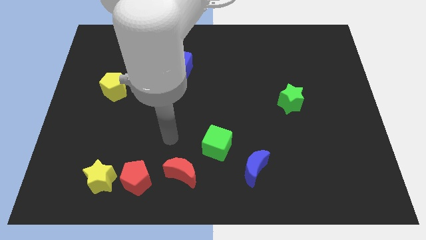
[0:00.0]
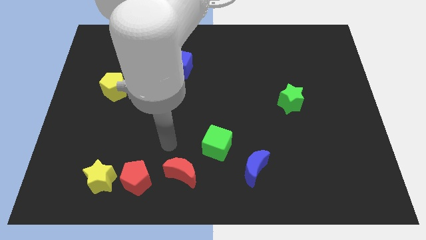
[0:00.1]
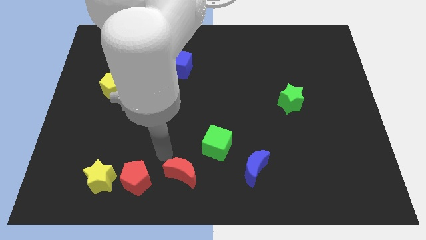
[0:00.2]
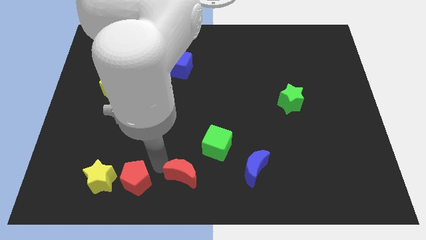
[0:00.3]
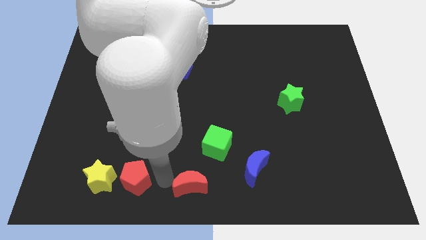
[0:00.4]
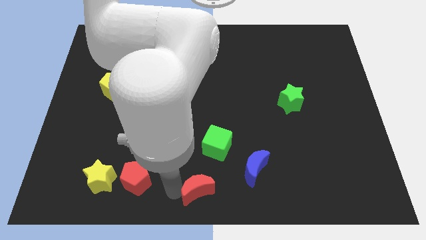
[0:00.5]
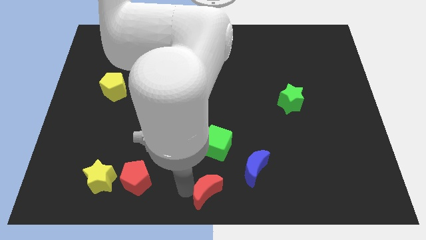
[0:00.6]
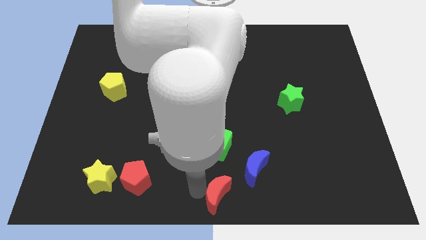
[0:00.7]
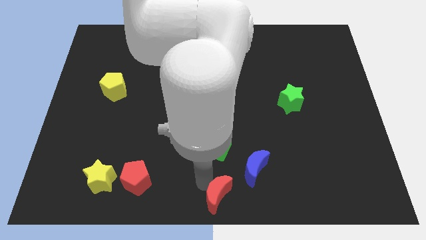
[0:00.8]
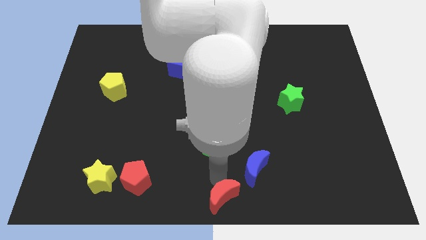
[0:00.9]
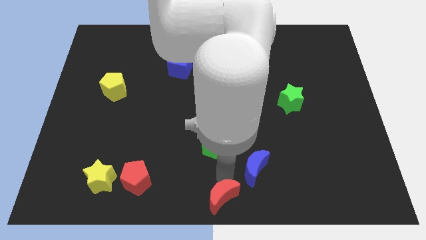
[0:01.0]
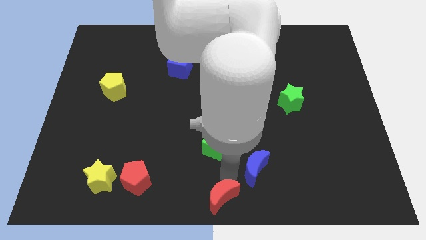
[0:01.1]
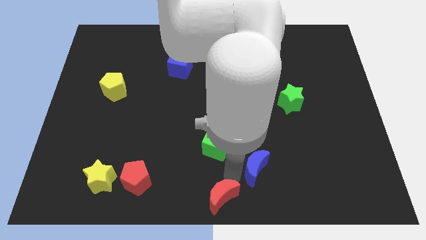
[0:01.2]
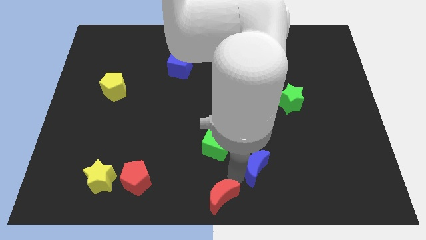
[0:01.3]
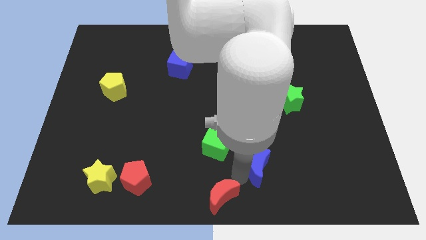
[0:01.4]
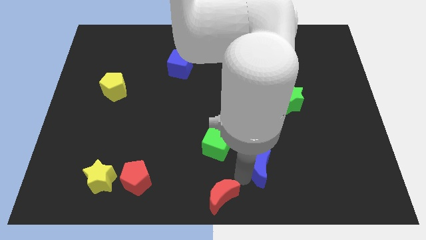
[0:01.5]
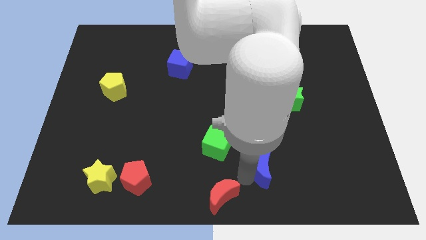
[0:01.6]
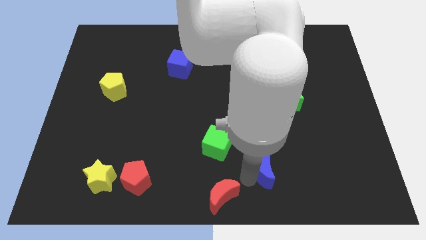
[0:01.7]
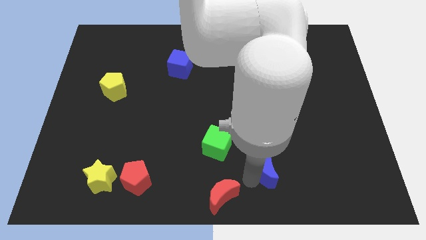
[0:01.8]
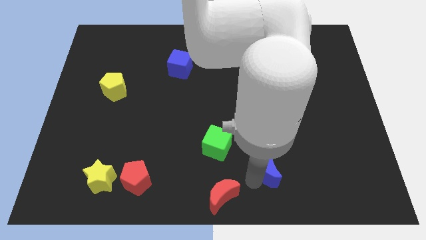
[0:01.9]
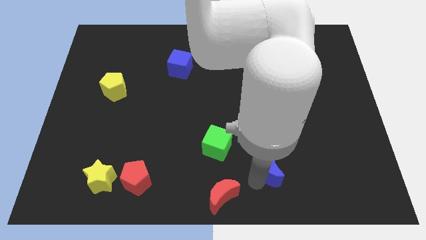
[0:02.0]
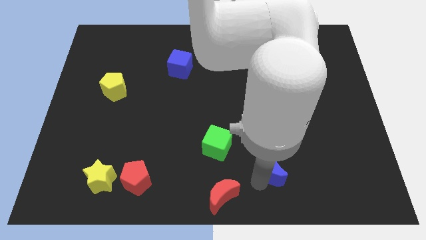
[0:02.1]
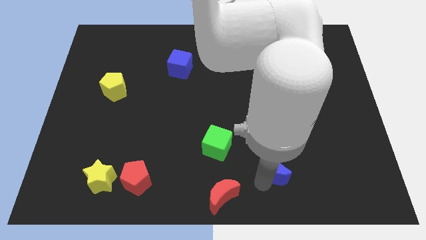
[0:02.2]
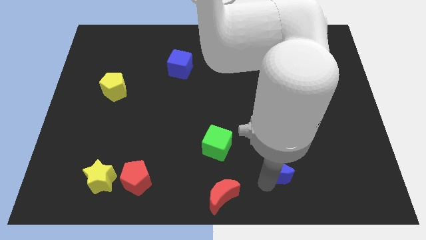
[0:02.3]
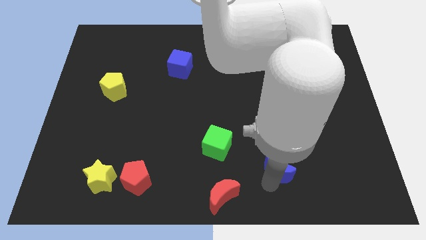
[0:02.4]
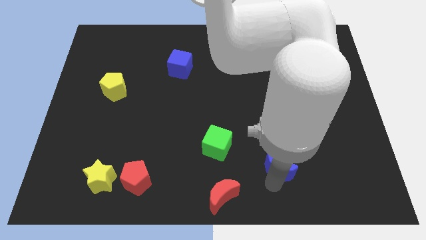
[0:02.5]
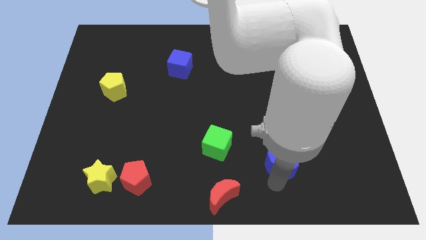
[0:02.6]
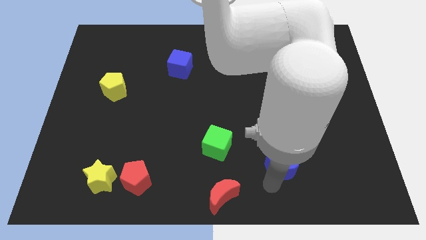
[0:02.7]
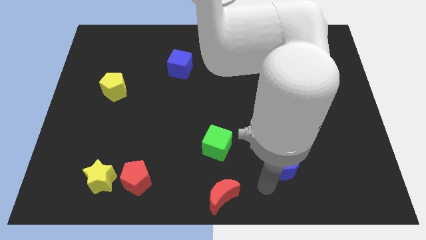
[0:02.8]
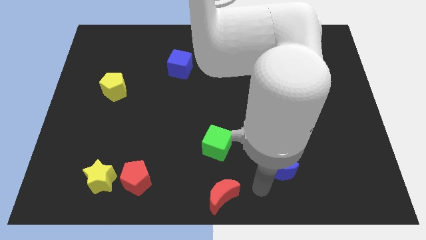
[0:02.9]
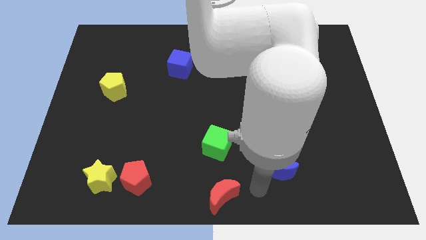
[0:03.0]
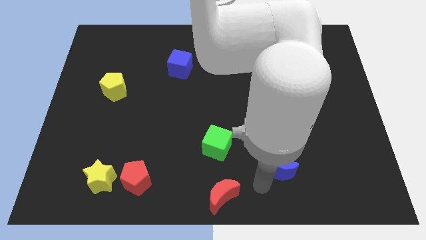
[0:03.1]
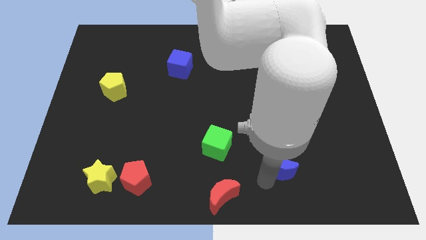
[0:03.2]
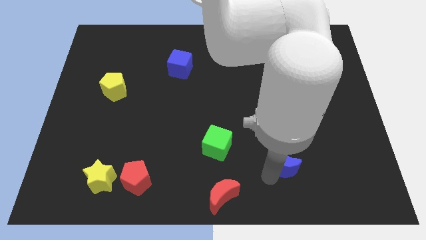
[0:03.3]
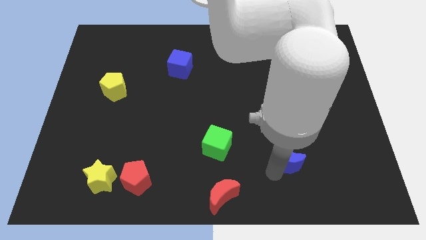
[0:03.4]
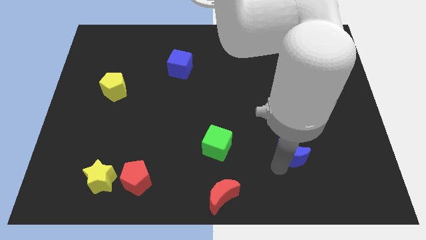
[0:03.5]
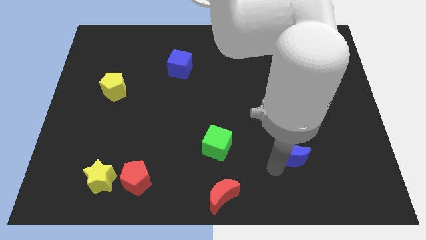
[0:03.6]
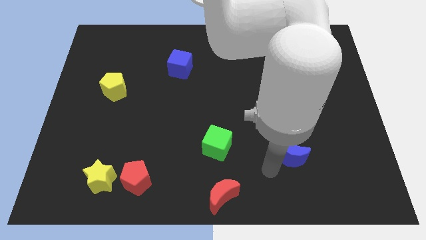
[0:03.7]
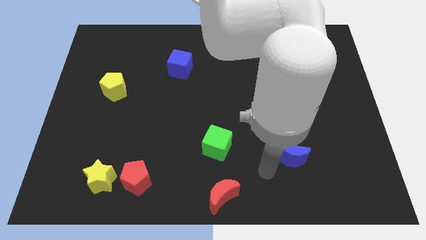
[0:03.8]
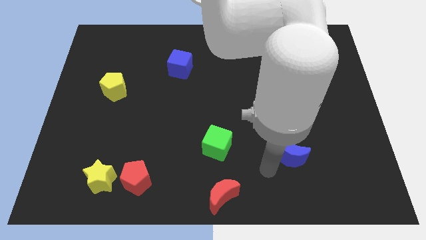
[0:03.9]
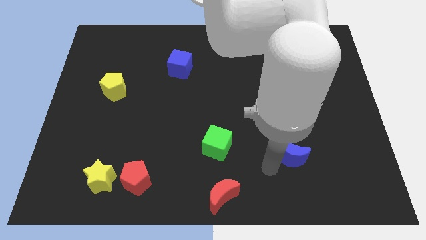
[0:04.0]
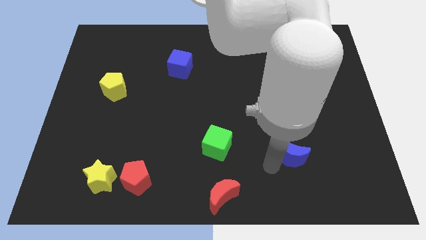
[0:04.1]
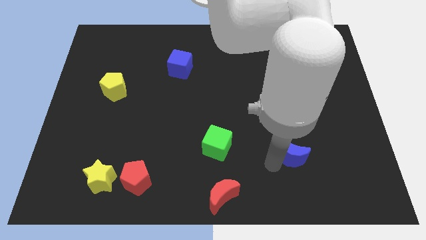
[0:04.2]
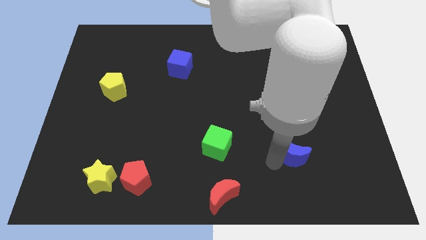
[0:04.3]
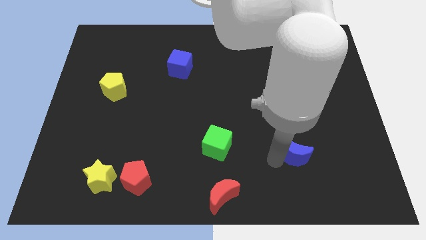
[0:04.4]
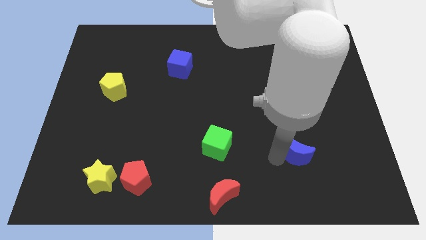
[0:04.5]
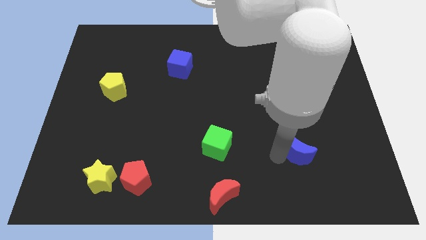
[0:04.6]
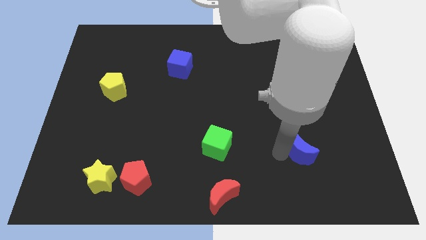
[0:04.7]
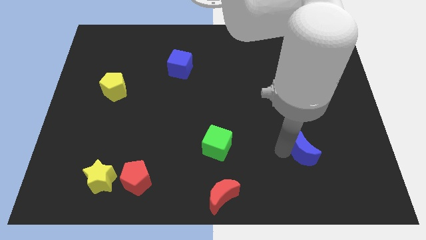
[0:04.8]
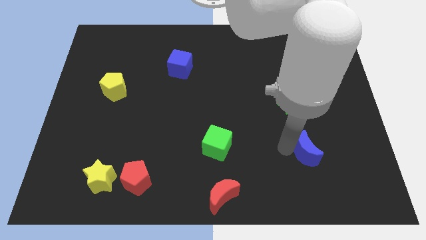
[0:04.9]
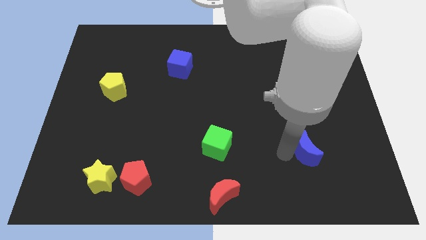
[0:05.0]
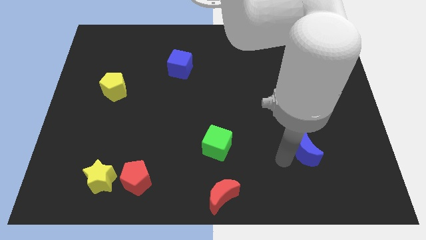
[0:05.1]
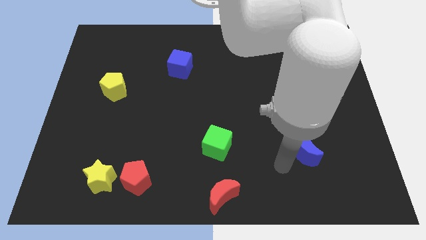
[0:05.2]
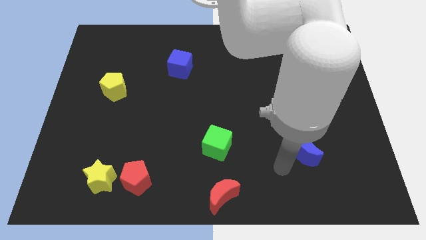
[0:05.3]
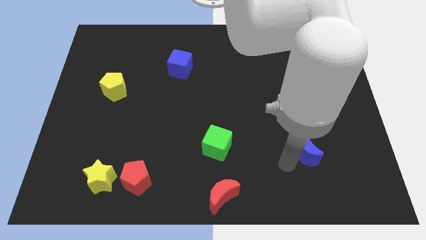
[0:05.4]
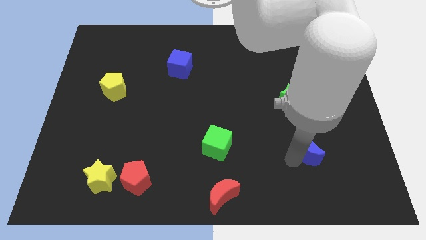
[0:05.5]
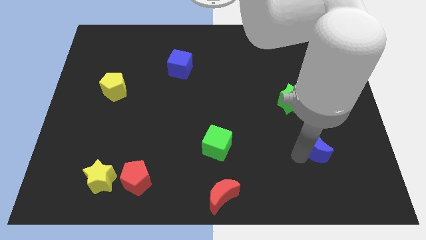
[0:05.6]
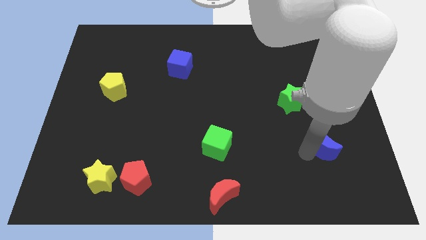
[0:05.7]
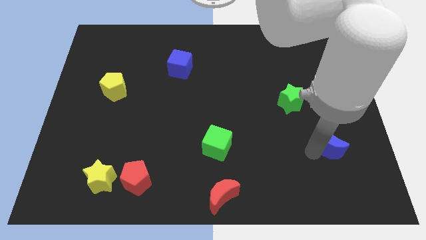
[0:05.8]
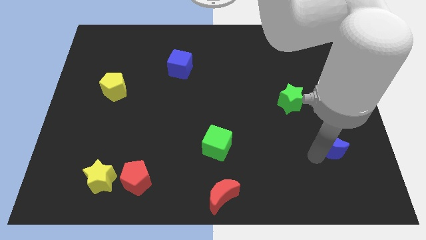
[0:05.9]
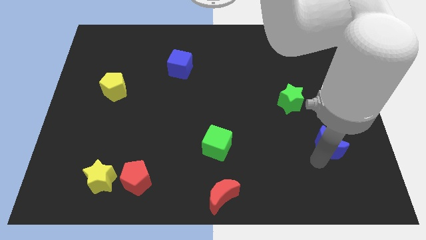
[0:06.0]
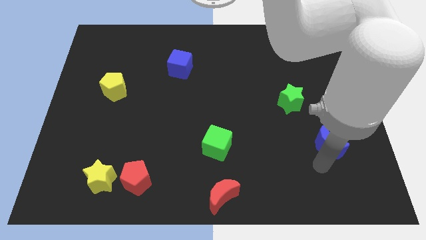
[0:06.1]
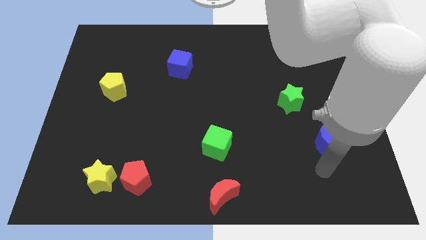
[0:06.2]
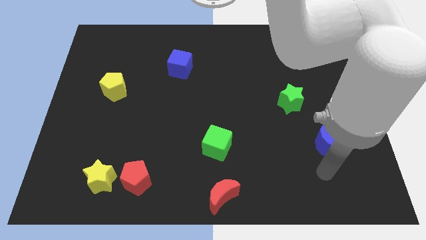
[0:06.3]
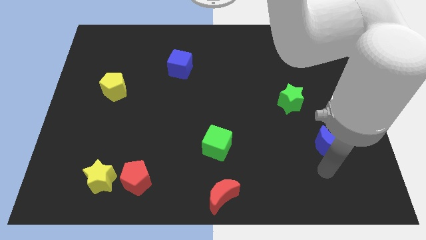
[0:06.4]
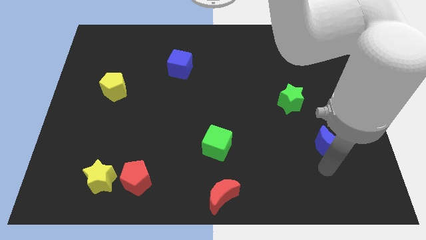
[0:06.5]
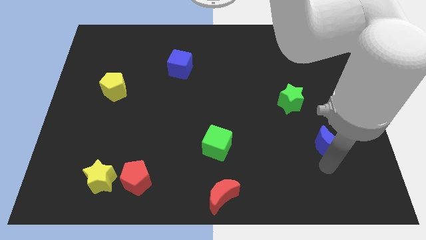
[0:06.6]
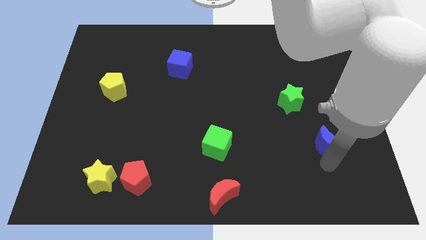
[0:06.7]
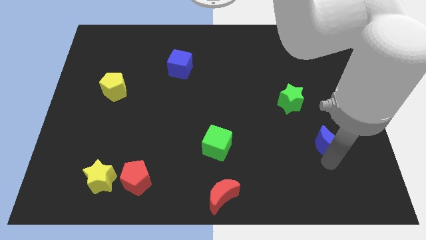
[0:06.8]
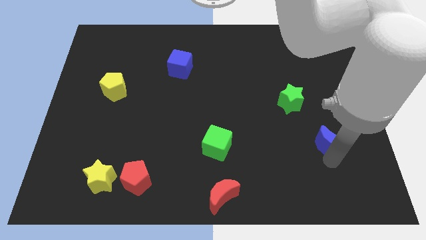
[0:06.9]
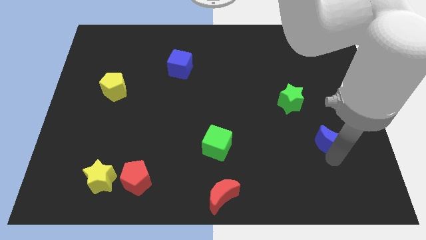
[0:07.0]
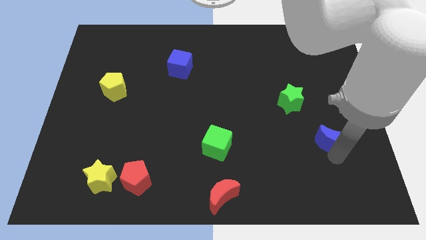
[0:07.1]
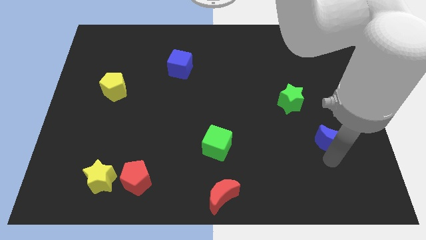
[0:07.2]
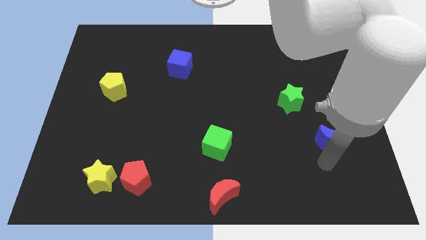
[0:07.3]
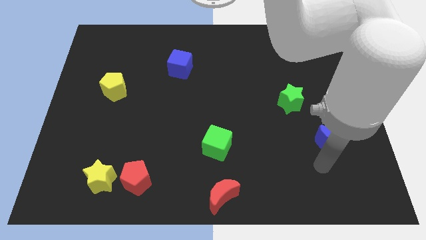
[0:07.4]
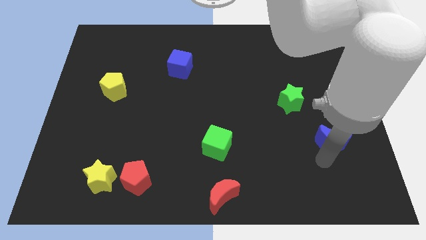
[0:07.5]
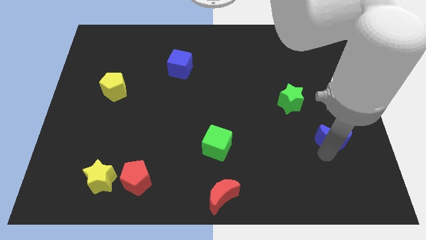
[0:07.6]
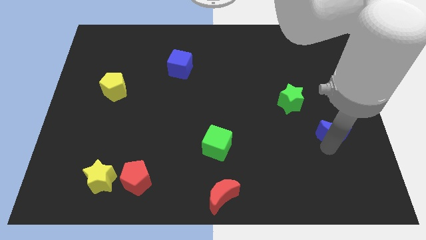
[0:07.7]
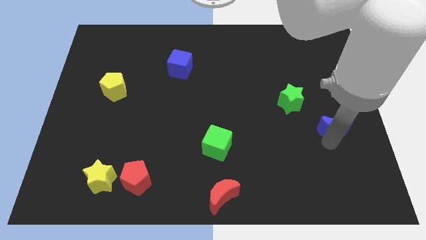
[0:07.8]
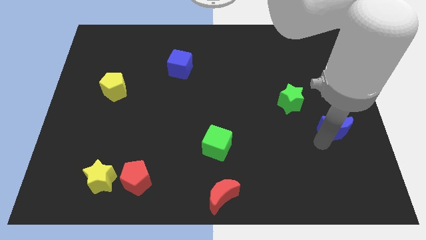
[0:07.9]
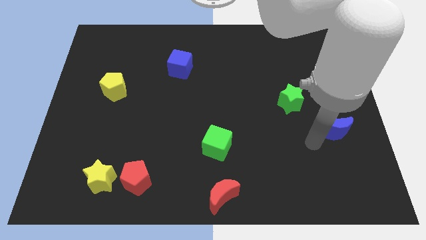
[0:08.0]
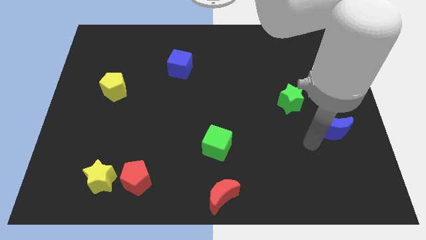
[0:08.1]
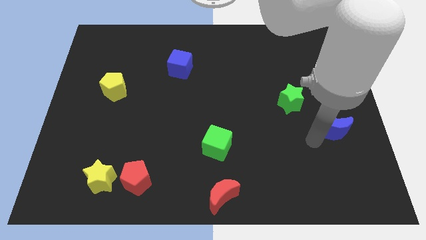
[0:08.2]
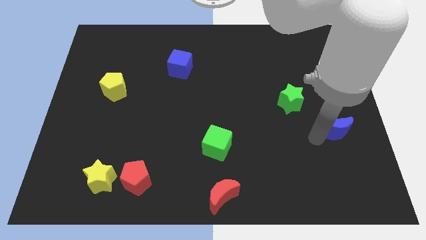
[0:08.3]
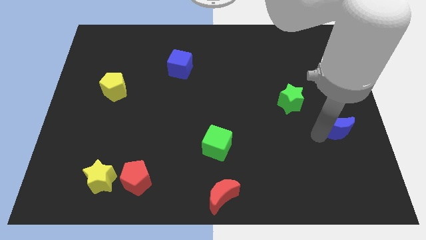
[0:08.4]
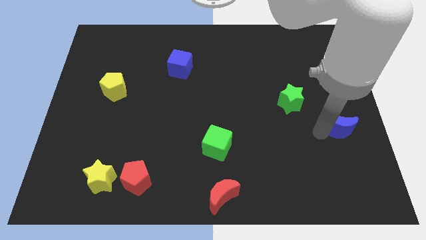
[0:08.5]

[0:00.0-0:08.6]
slide the blue moon to the right side
